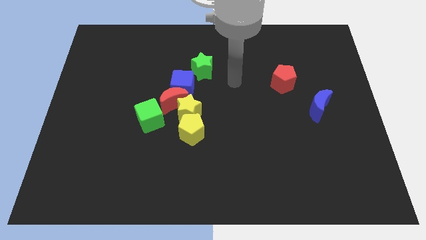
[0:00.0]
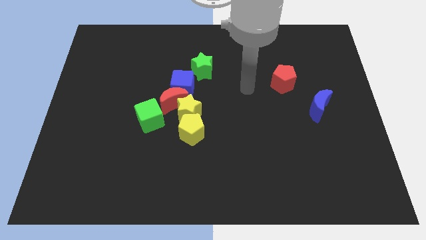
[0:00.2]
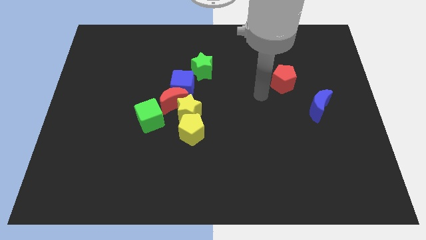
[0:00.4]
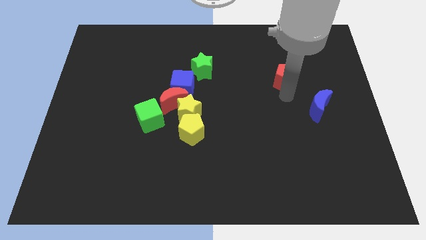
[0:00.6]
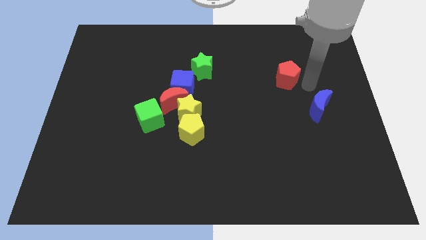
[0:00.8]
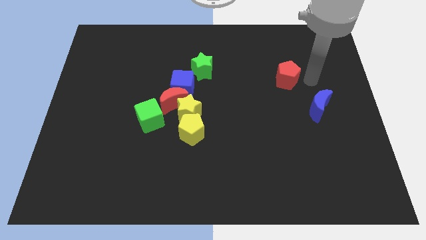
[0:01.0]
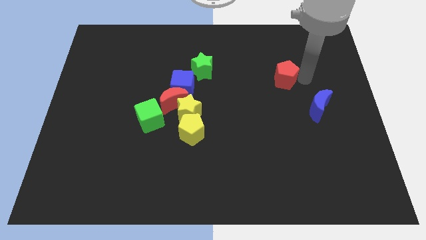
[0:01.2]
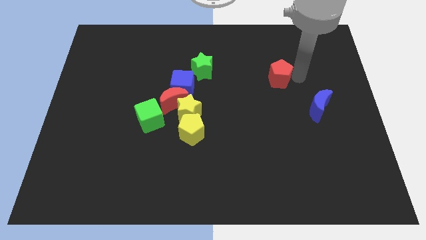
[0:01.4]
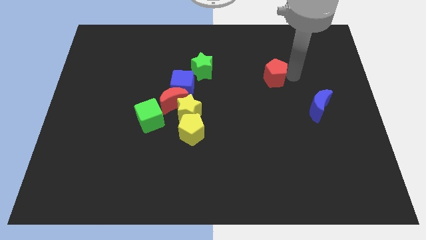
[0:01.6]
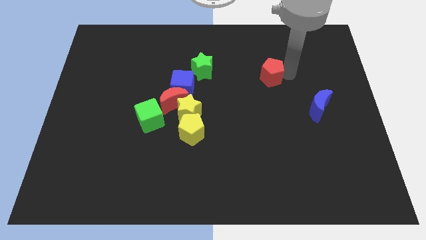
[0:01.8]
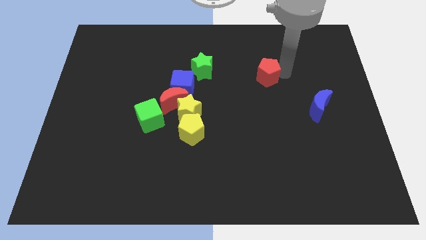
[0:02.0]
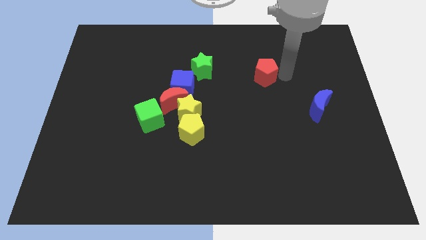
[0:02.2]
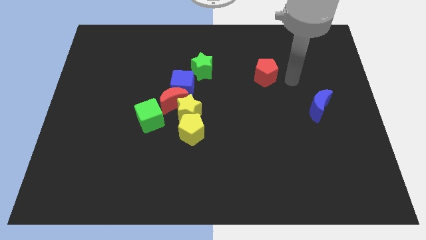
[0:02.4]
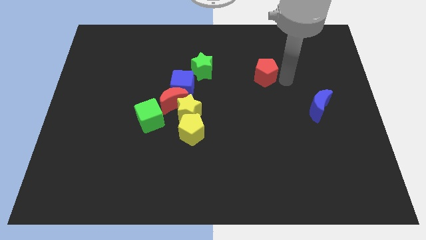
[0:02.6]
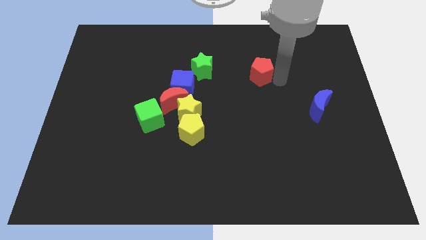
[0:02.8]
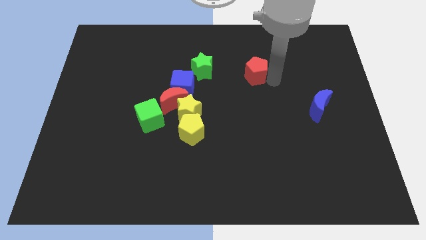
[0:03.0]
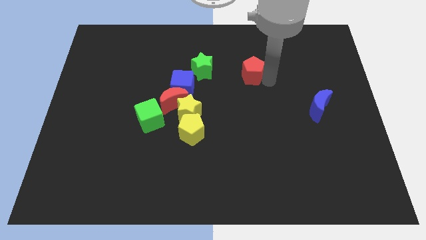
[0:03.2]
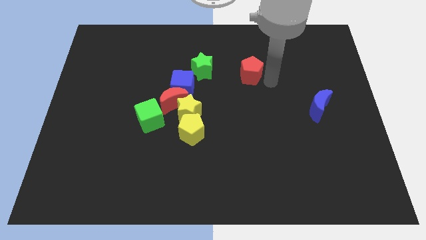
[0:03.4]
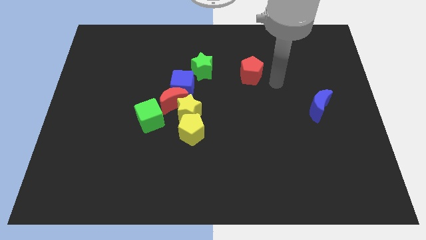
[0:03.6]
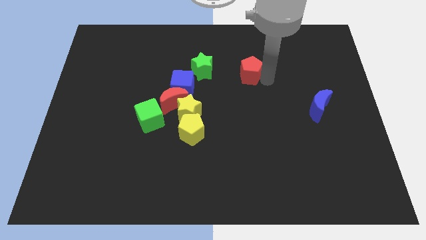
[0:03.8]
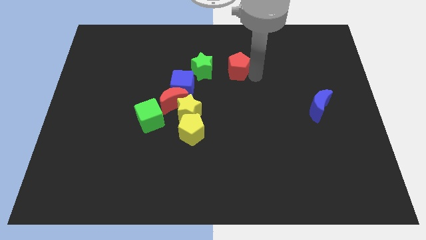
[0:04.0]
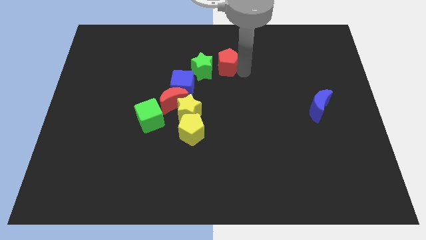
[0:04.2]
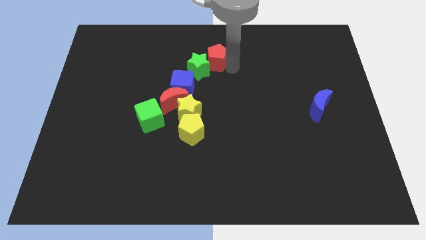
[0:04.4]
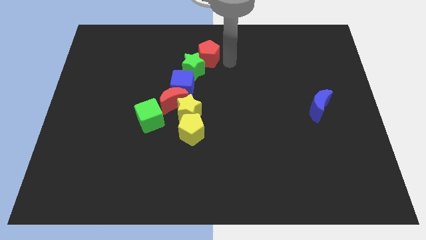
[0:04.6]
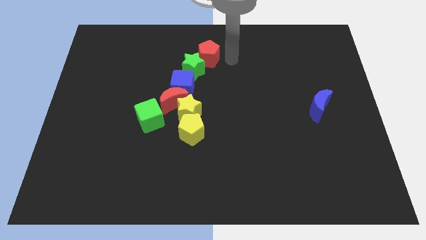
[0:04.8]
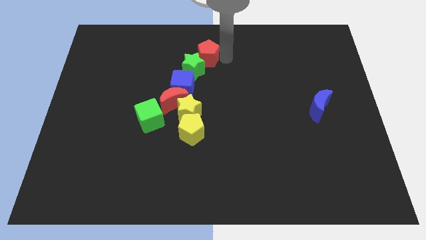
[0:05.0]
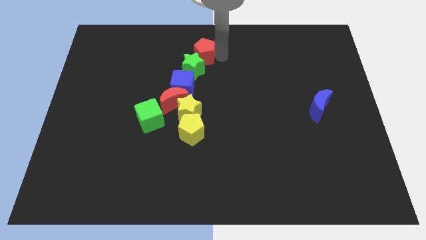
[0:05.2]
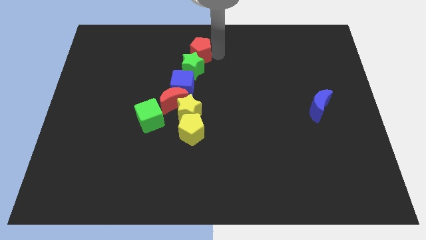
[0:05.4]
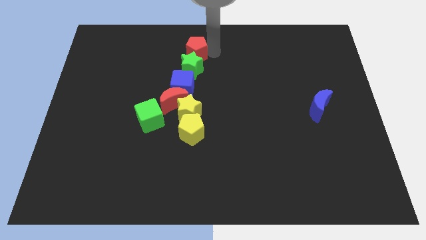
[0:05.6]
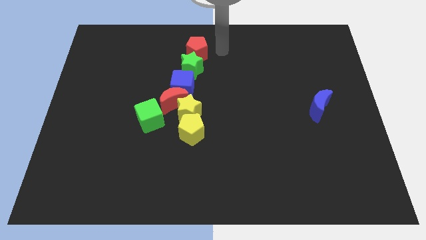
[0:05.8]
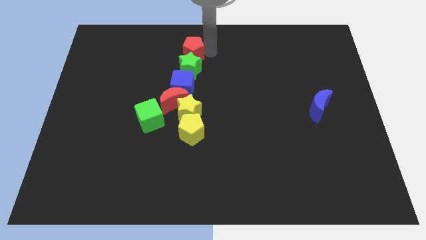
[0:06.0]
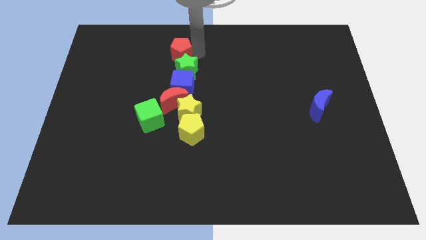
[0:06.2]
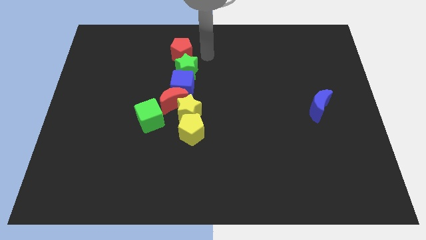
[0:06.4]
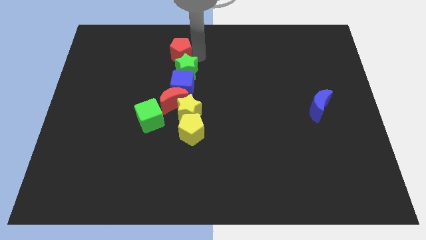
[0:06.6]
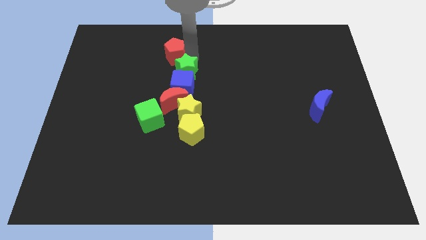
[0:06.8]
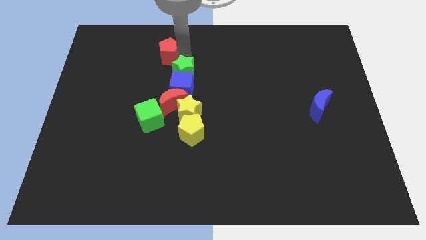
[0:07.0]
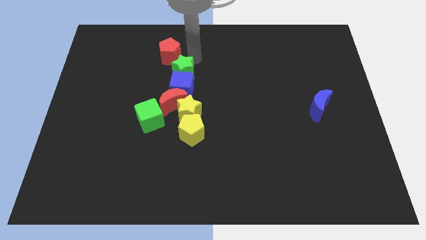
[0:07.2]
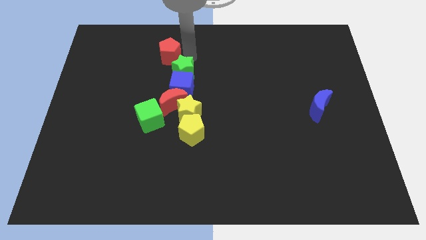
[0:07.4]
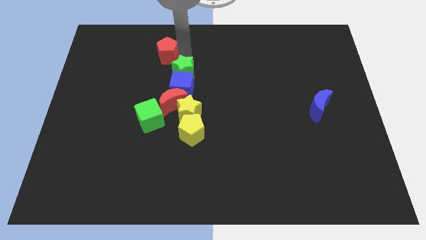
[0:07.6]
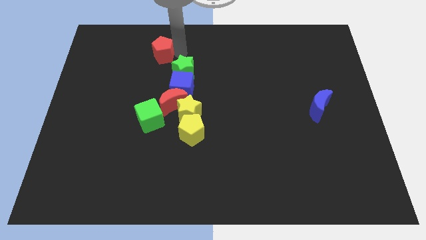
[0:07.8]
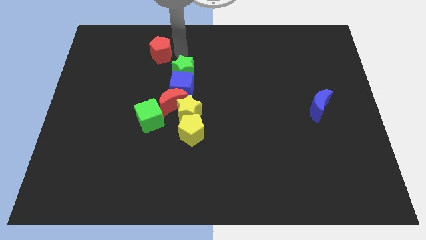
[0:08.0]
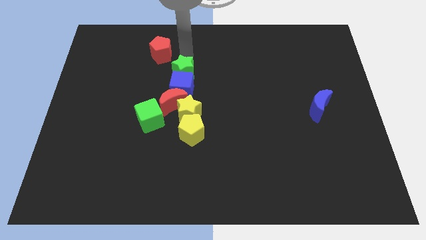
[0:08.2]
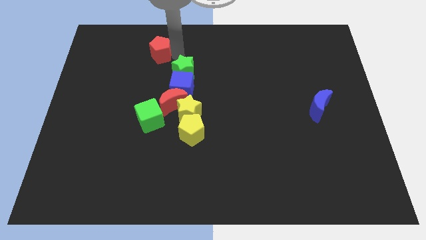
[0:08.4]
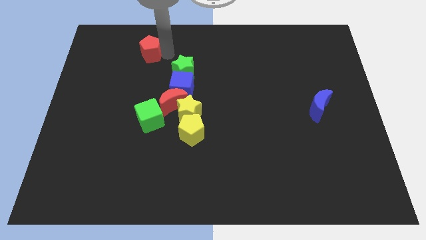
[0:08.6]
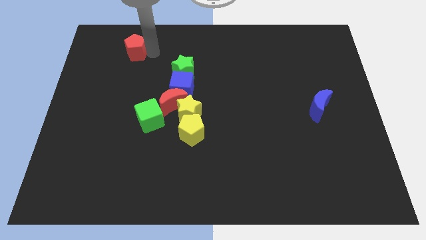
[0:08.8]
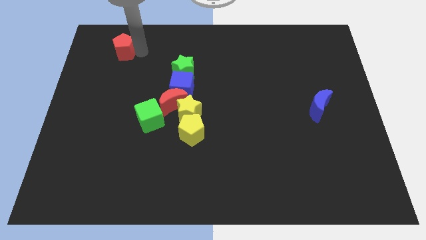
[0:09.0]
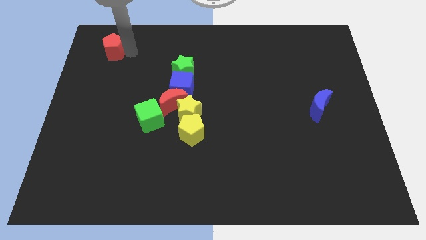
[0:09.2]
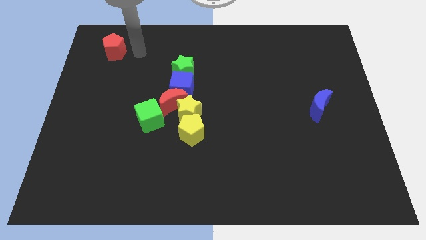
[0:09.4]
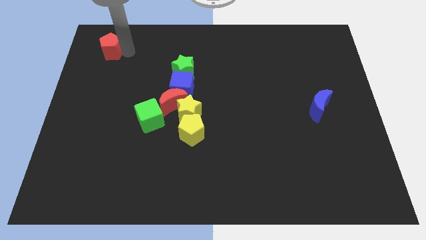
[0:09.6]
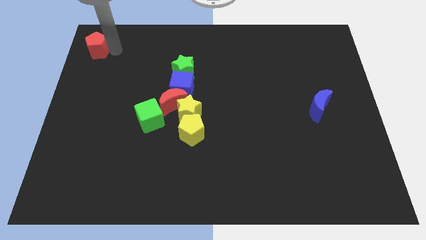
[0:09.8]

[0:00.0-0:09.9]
push the red pentagon to the upper left corner

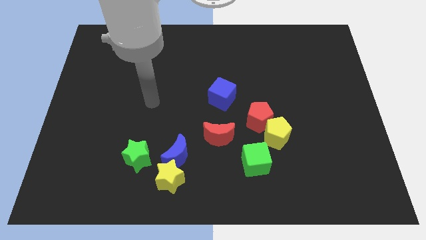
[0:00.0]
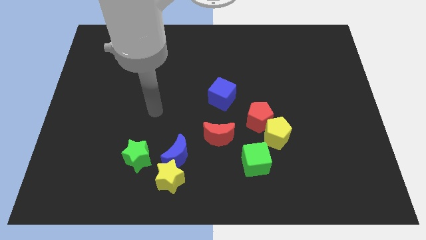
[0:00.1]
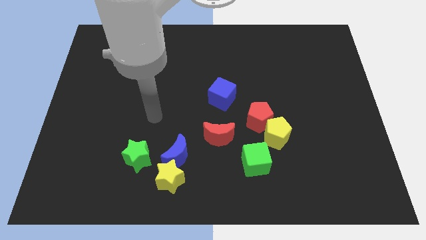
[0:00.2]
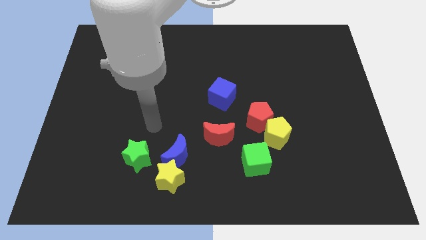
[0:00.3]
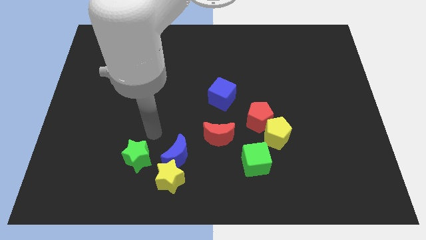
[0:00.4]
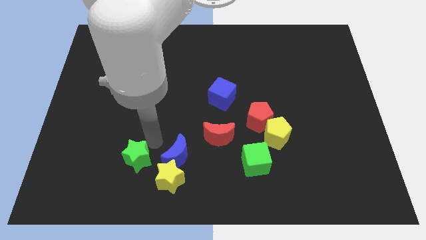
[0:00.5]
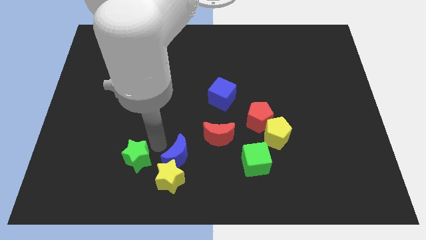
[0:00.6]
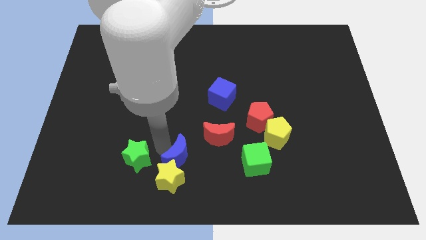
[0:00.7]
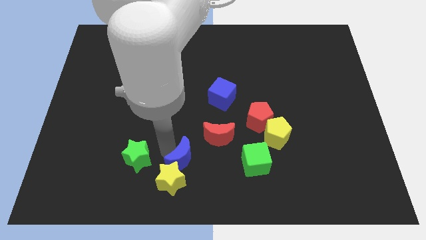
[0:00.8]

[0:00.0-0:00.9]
slide the blue moon to the bottom
